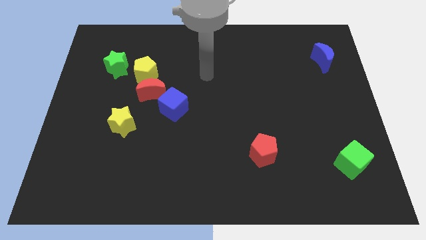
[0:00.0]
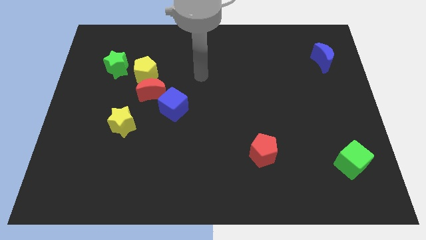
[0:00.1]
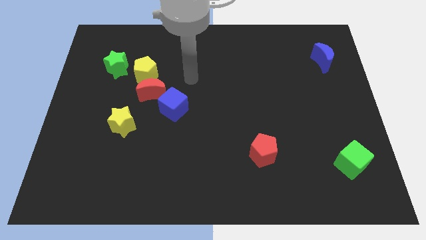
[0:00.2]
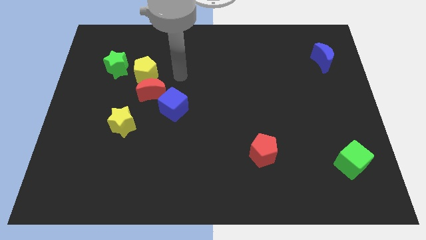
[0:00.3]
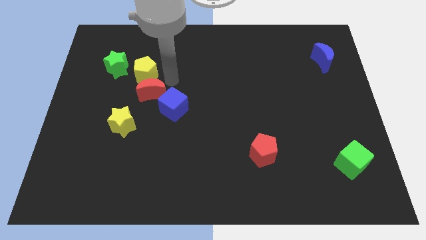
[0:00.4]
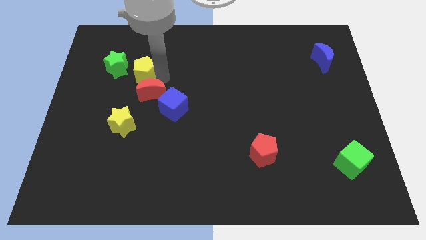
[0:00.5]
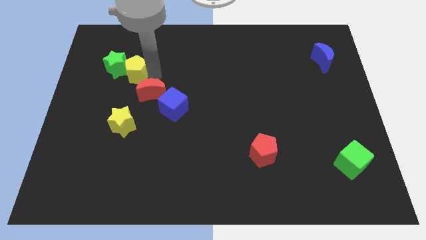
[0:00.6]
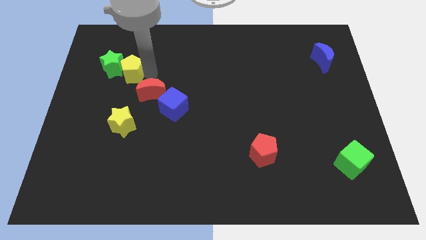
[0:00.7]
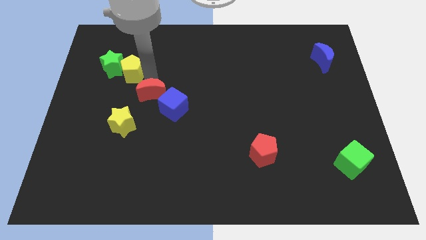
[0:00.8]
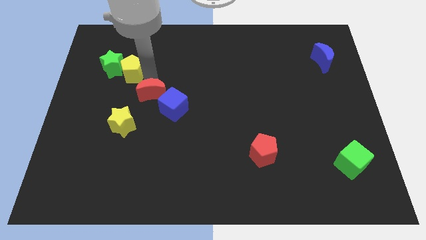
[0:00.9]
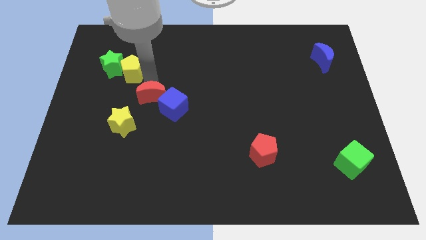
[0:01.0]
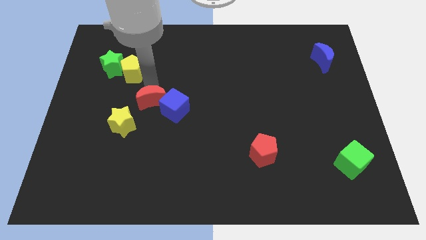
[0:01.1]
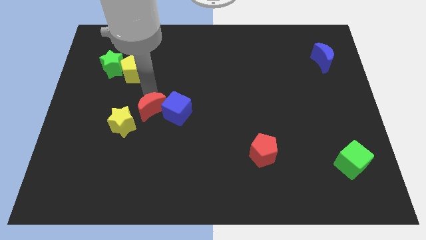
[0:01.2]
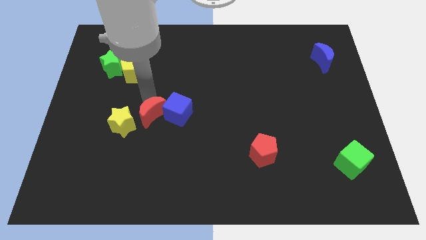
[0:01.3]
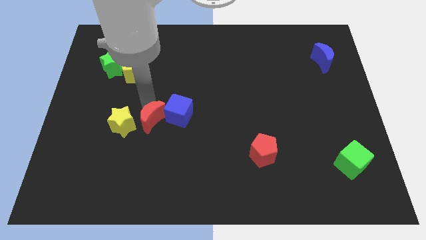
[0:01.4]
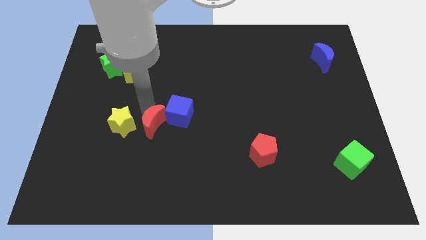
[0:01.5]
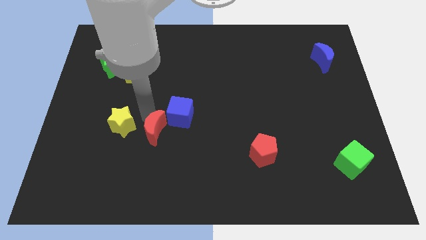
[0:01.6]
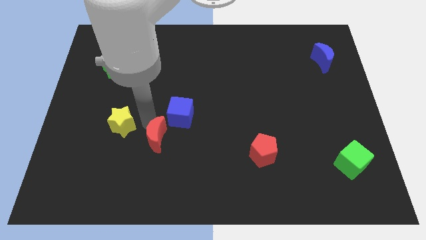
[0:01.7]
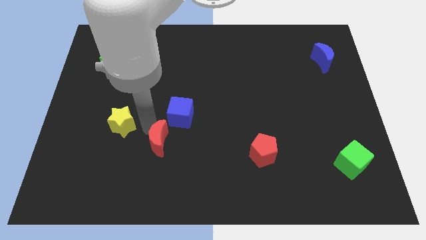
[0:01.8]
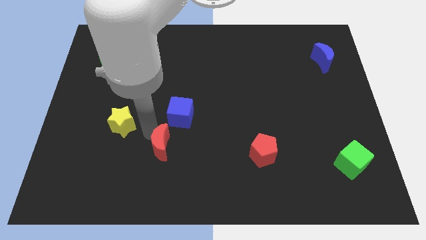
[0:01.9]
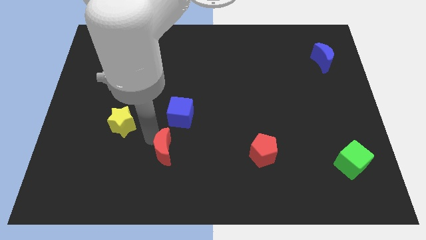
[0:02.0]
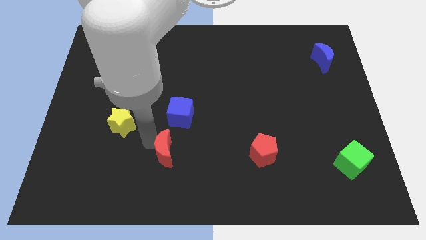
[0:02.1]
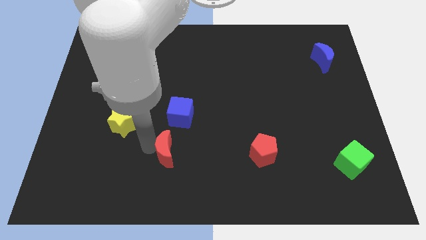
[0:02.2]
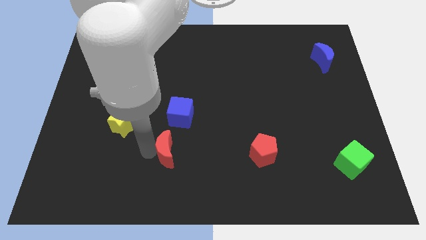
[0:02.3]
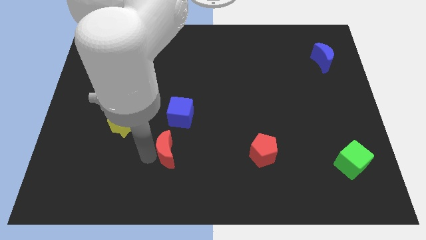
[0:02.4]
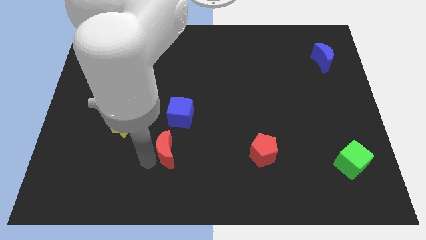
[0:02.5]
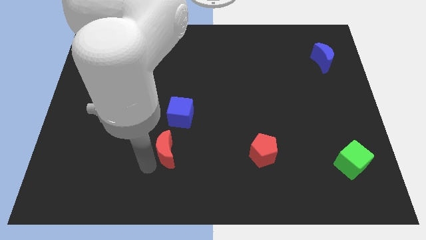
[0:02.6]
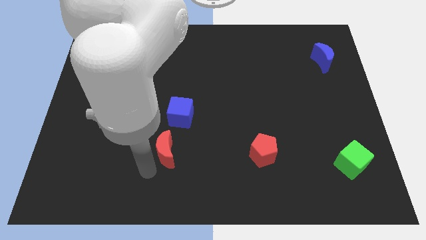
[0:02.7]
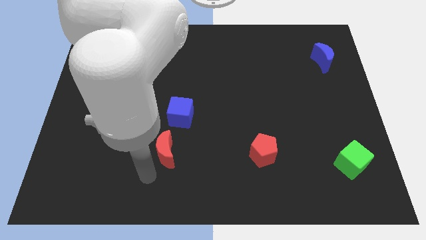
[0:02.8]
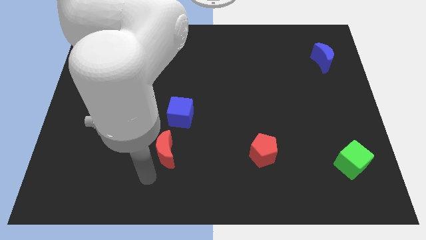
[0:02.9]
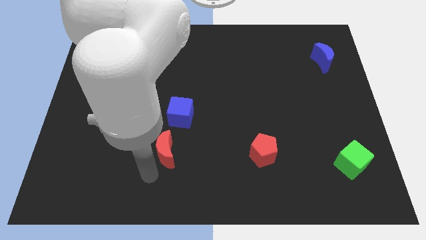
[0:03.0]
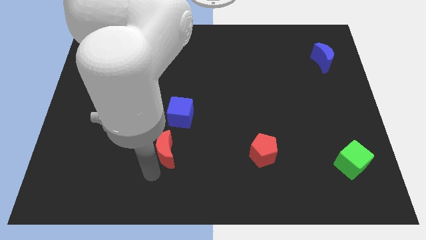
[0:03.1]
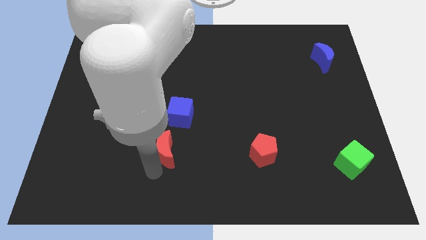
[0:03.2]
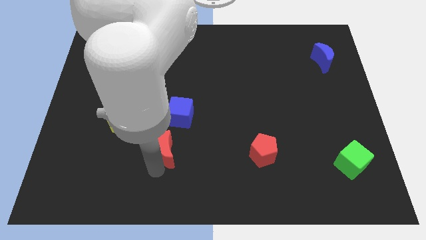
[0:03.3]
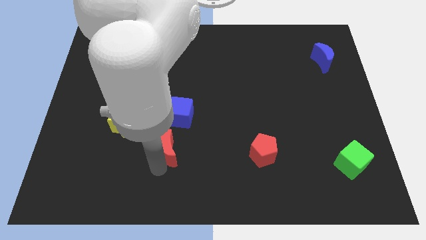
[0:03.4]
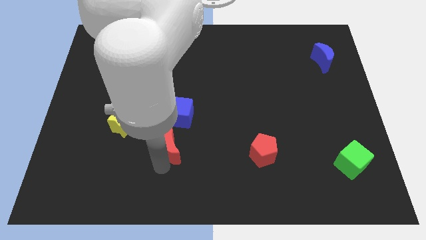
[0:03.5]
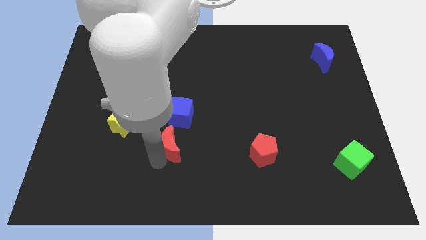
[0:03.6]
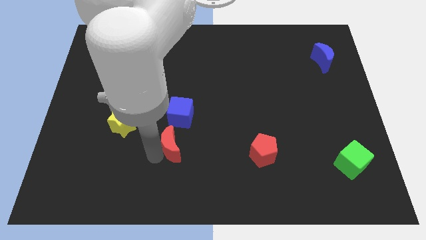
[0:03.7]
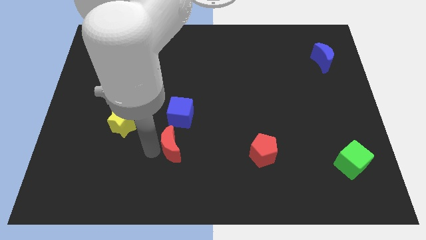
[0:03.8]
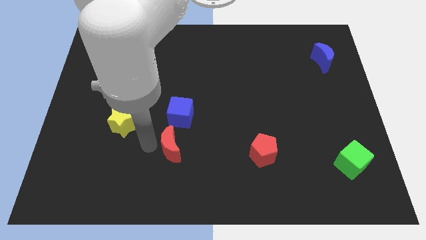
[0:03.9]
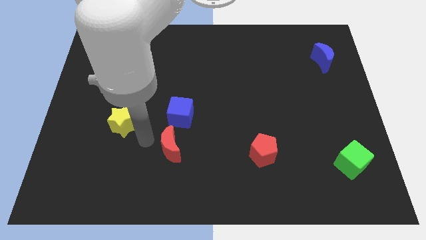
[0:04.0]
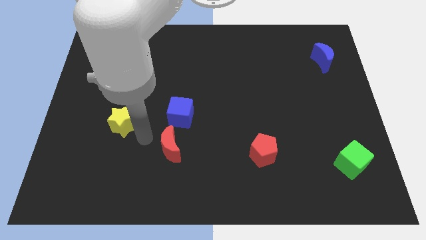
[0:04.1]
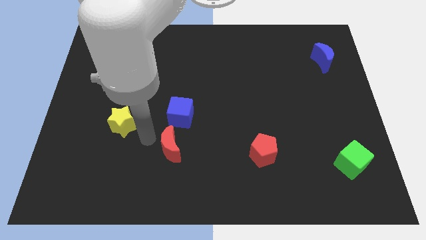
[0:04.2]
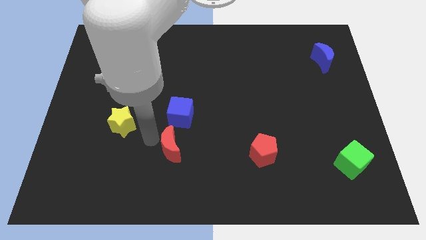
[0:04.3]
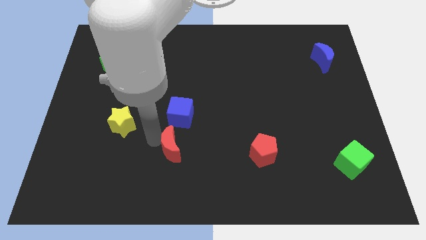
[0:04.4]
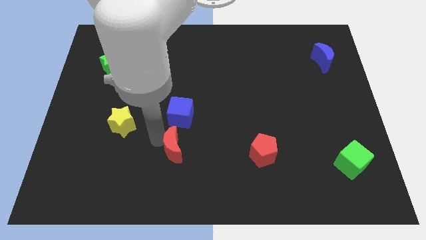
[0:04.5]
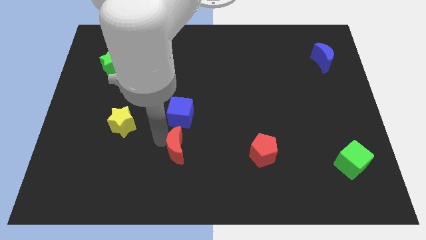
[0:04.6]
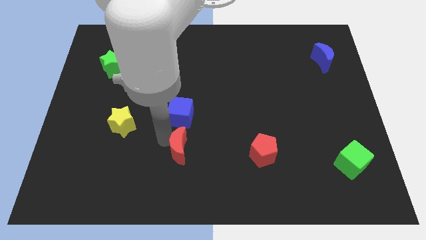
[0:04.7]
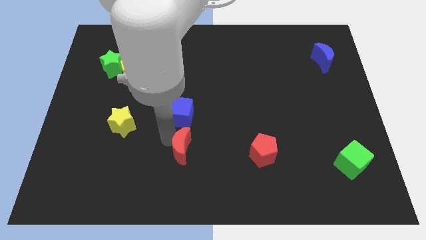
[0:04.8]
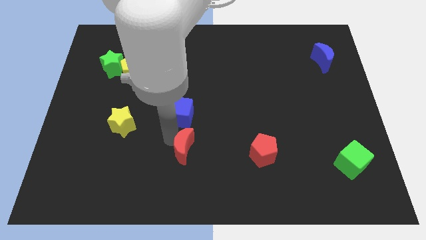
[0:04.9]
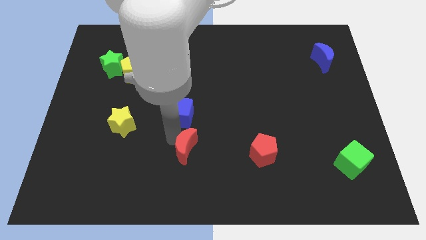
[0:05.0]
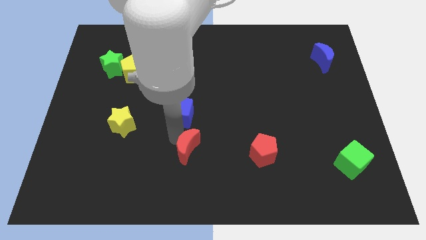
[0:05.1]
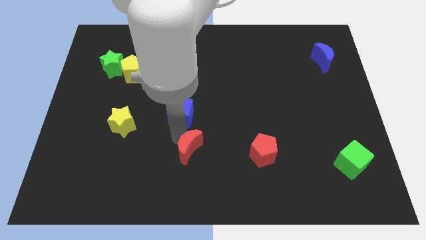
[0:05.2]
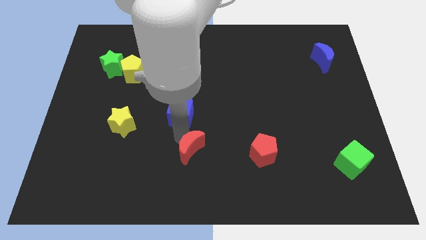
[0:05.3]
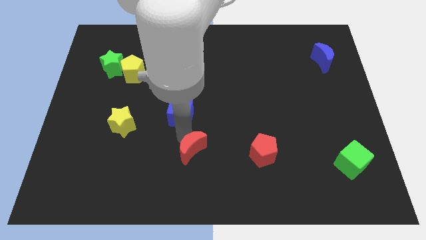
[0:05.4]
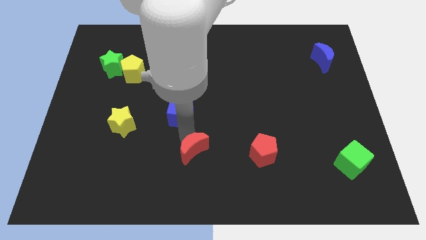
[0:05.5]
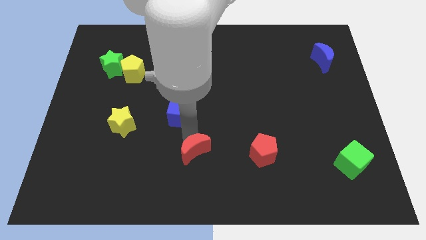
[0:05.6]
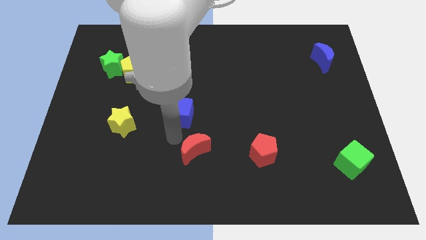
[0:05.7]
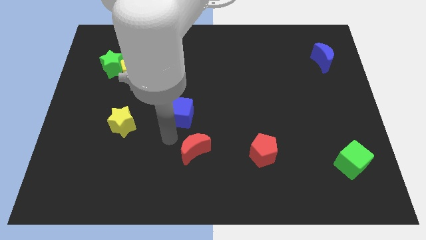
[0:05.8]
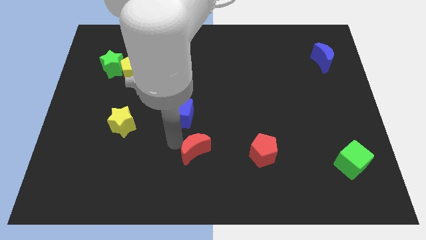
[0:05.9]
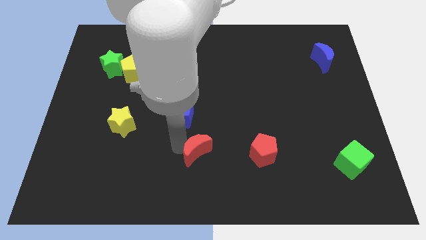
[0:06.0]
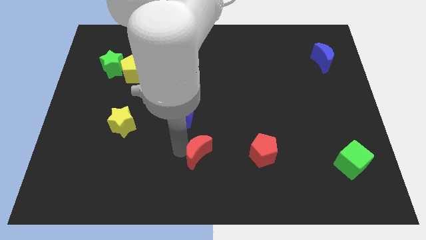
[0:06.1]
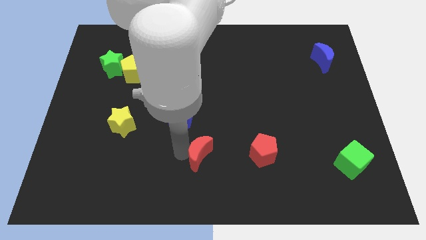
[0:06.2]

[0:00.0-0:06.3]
move the red moon diagonally down and right

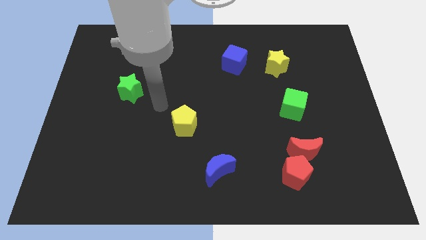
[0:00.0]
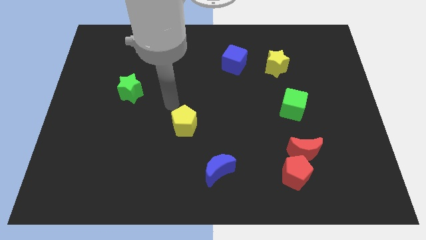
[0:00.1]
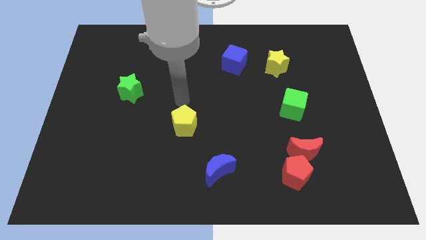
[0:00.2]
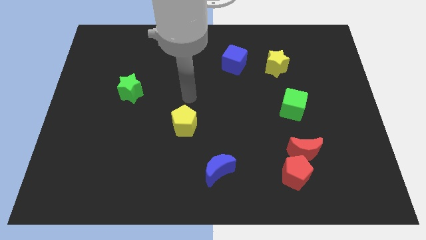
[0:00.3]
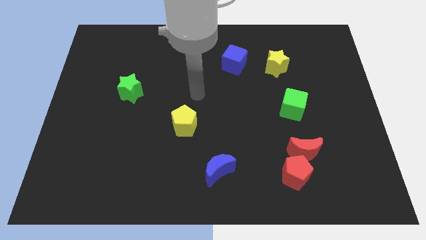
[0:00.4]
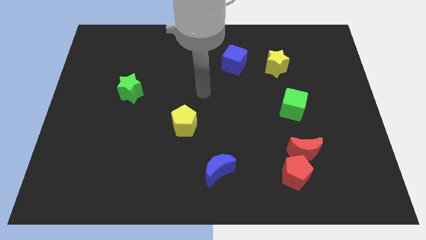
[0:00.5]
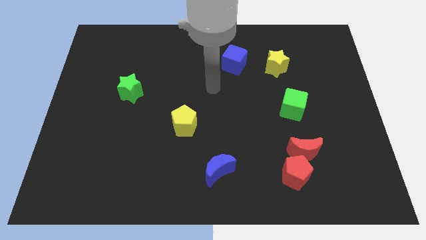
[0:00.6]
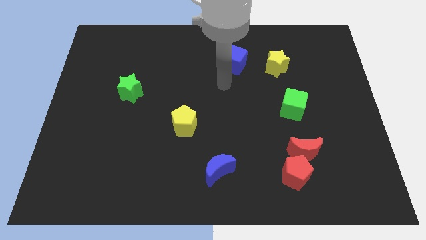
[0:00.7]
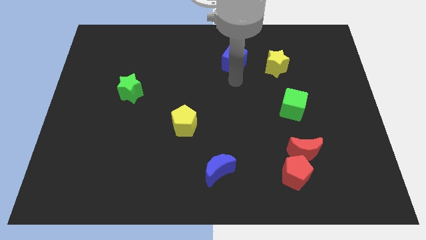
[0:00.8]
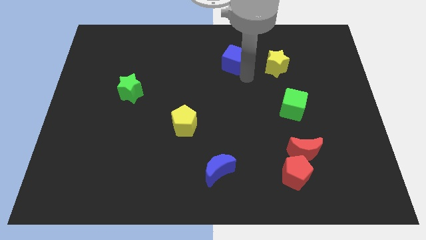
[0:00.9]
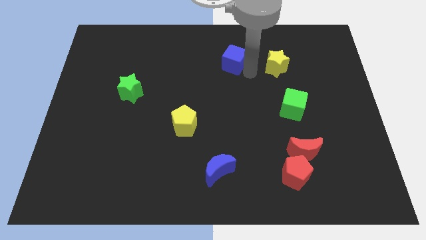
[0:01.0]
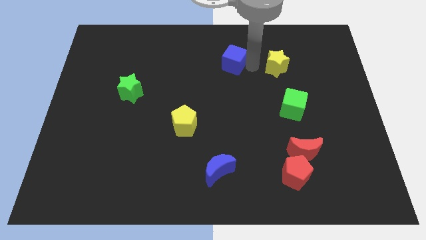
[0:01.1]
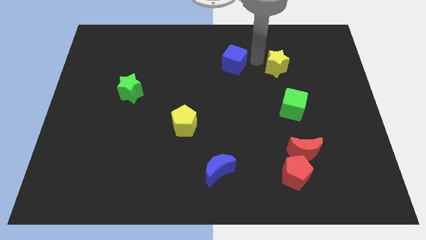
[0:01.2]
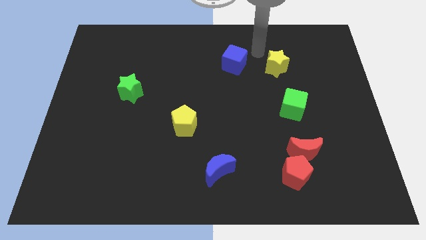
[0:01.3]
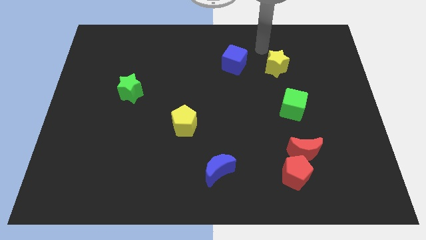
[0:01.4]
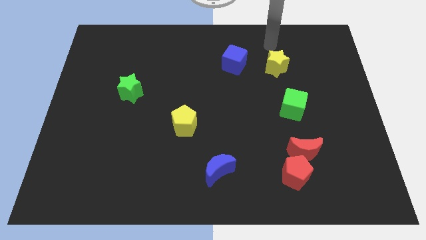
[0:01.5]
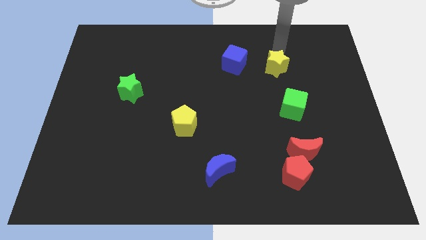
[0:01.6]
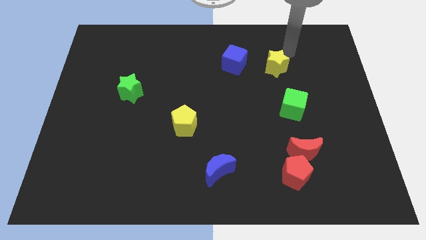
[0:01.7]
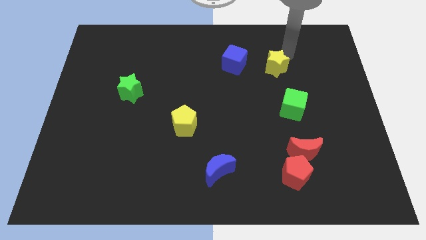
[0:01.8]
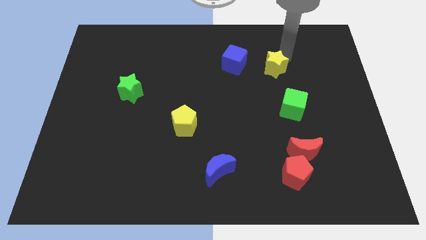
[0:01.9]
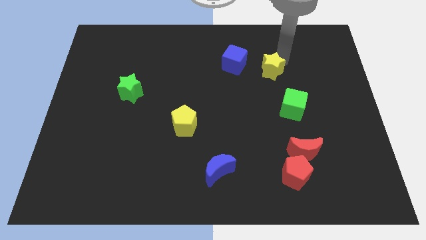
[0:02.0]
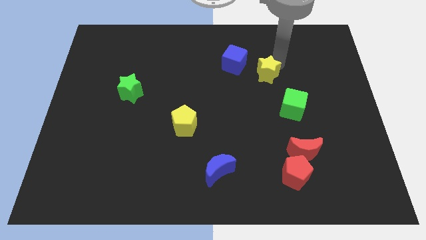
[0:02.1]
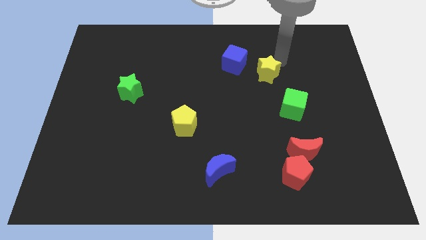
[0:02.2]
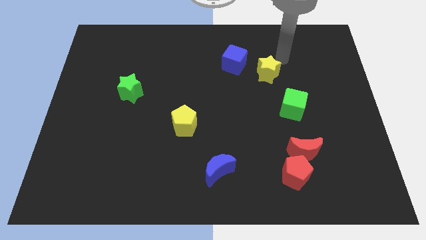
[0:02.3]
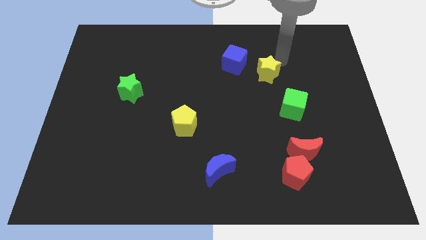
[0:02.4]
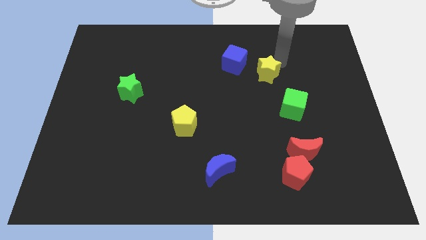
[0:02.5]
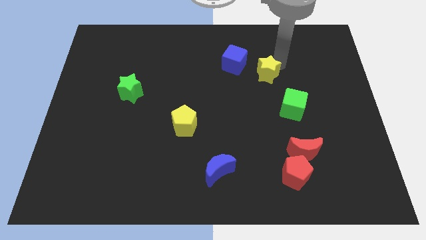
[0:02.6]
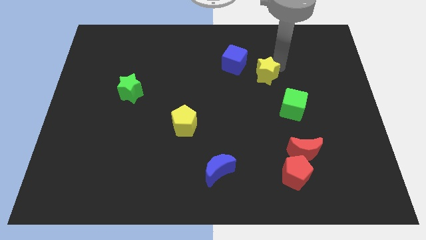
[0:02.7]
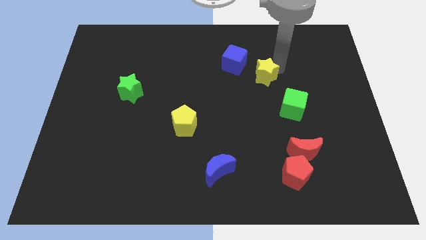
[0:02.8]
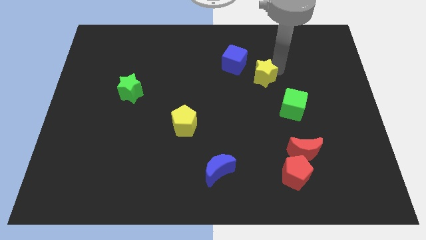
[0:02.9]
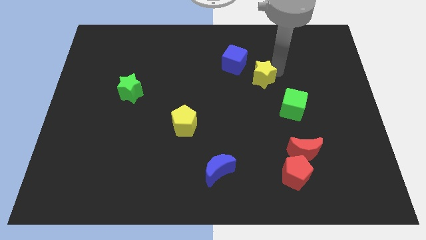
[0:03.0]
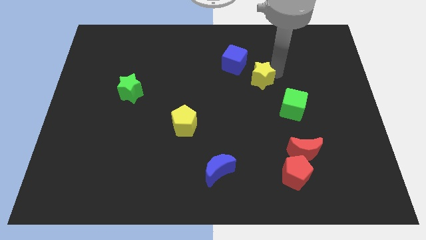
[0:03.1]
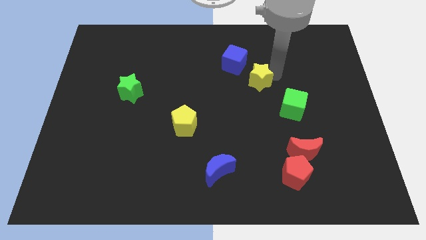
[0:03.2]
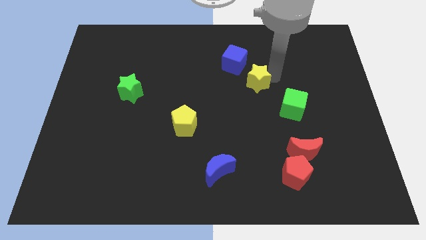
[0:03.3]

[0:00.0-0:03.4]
push the yellow star a bit diagonally down and to the left
